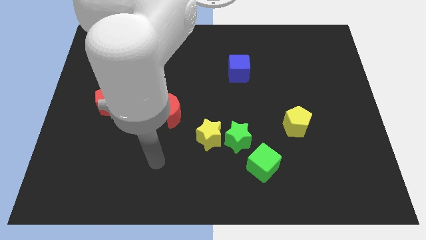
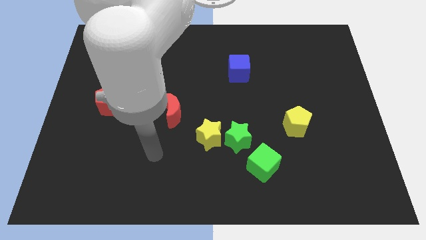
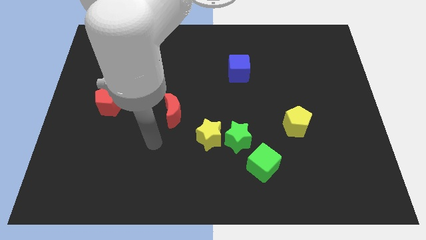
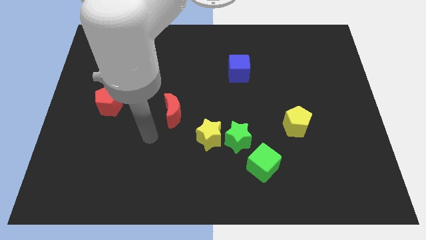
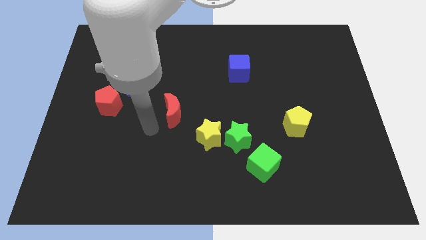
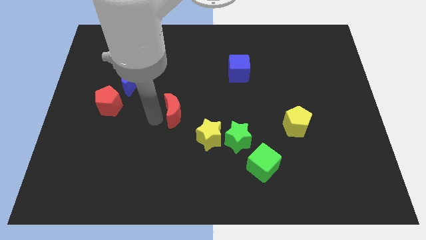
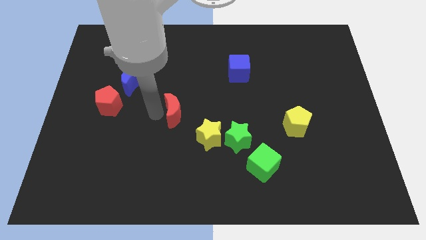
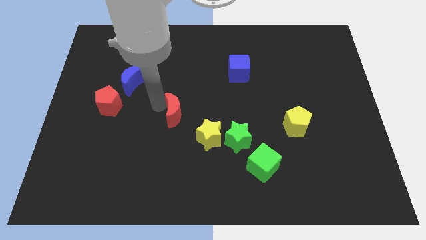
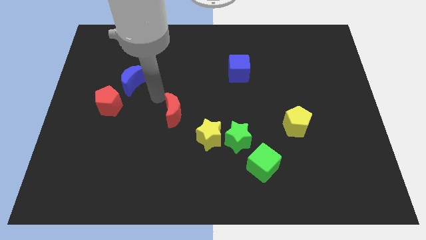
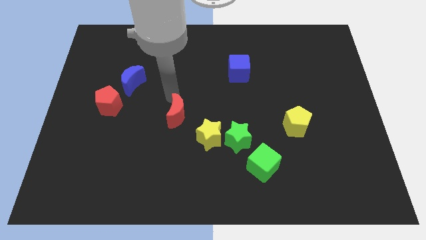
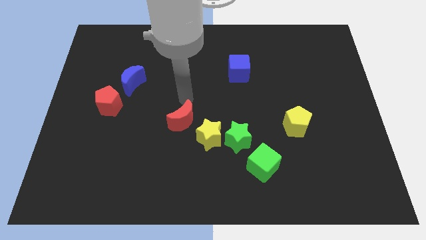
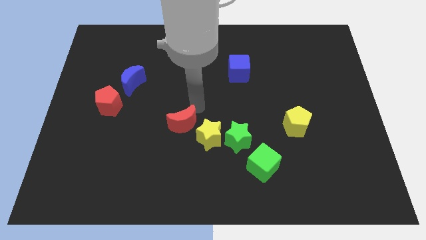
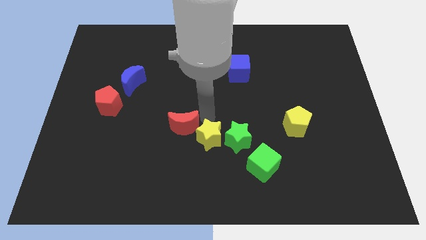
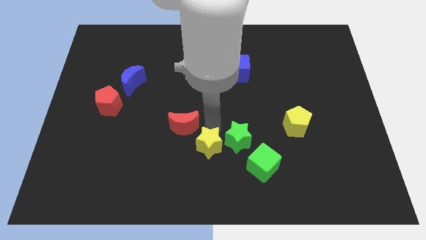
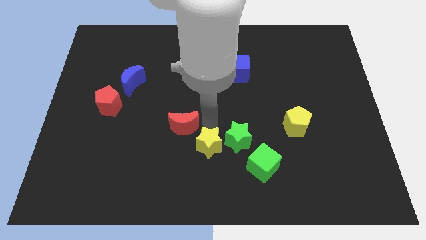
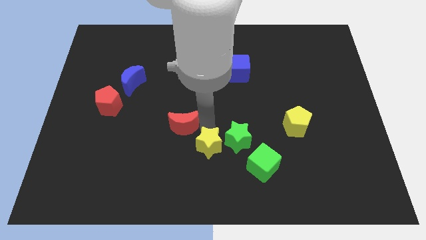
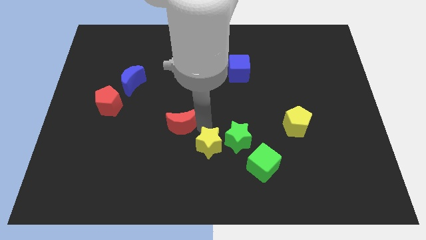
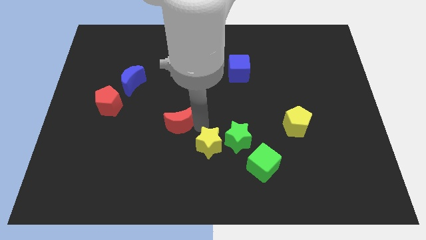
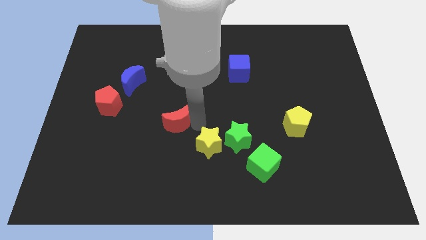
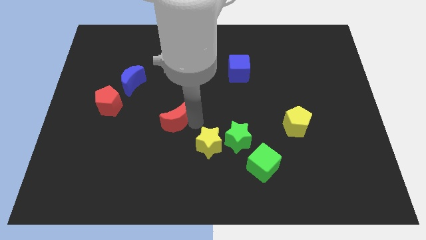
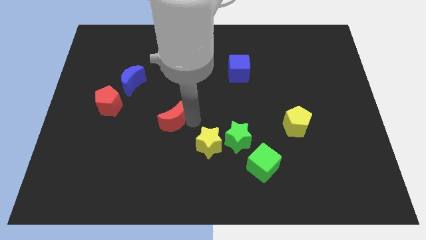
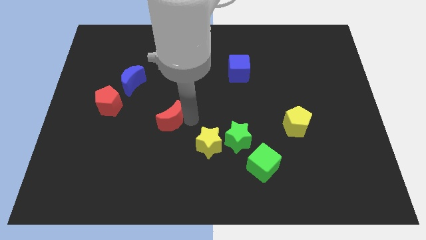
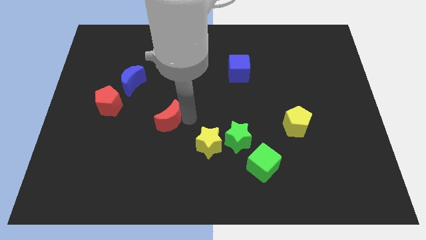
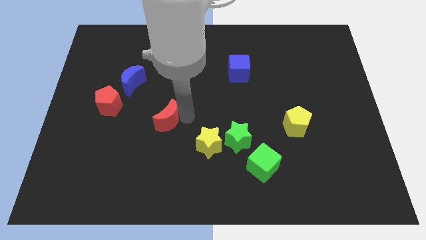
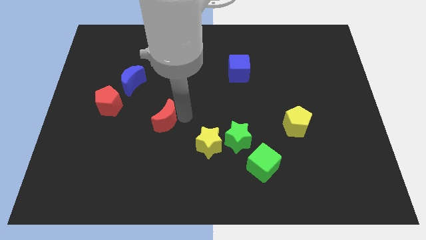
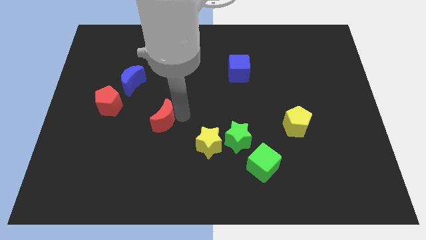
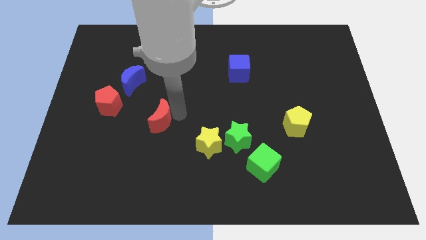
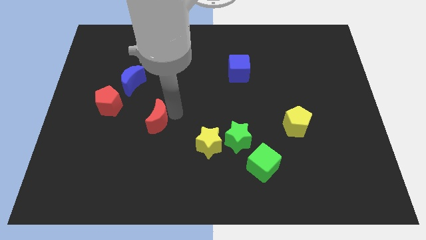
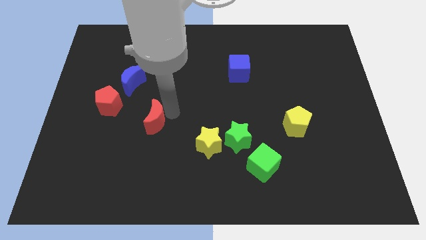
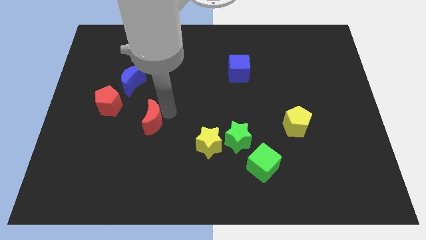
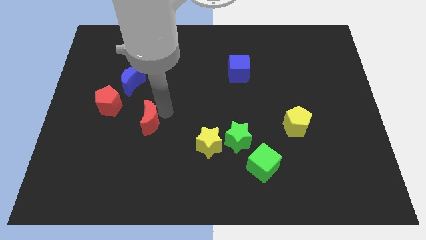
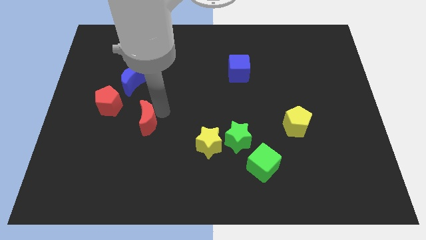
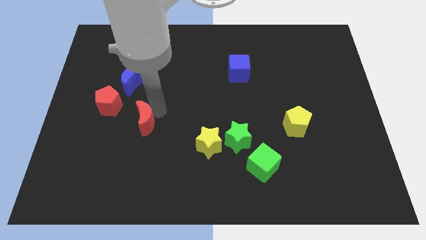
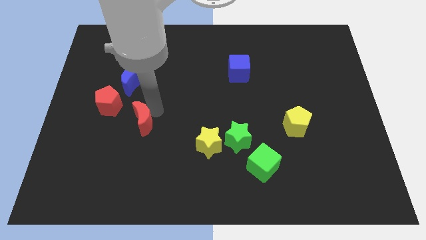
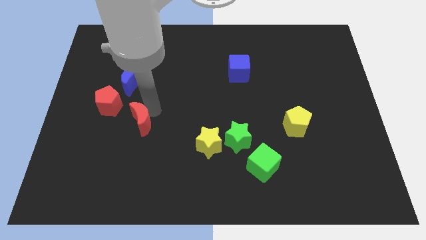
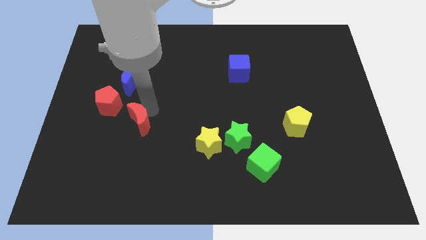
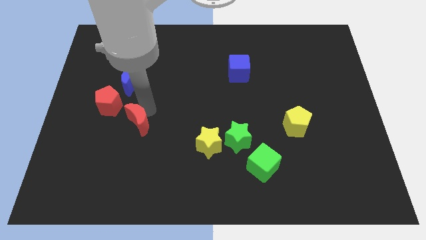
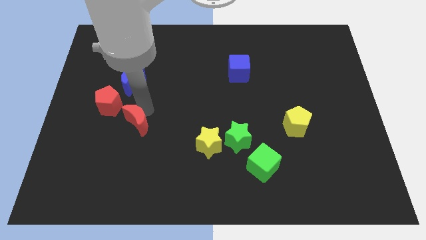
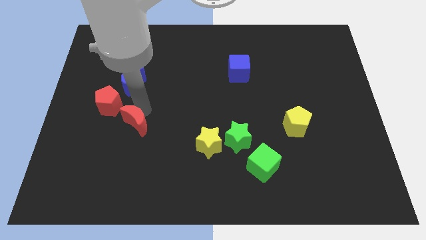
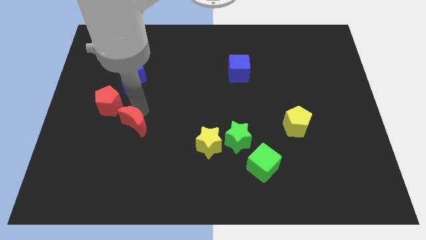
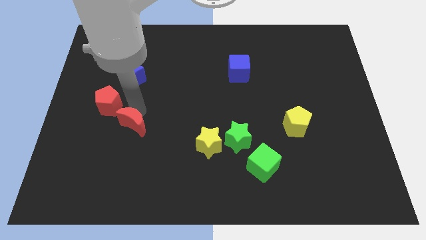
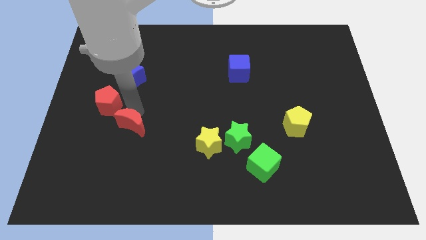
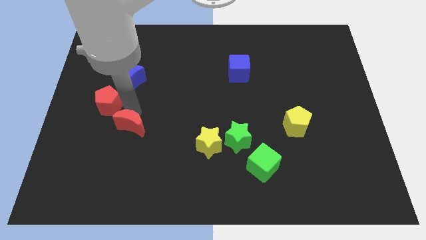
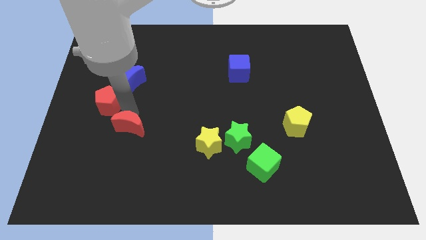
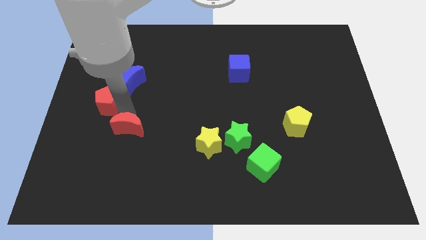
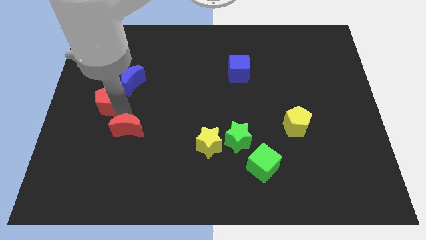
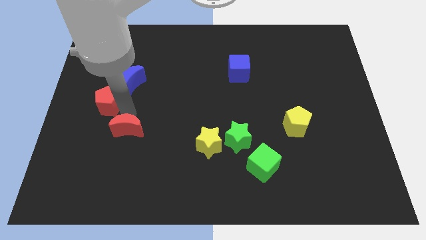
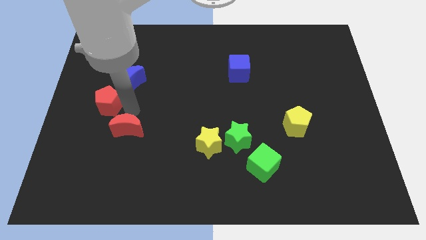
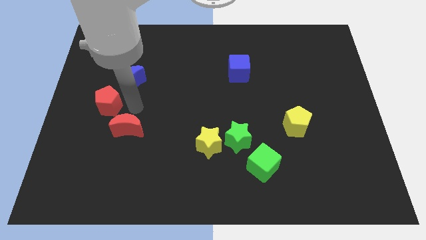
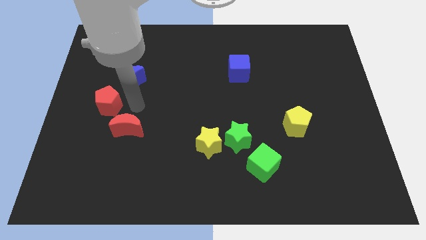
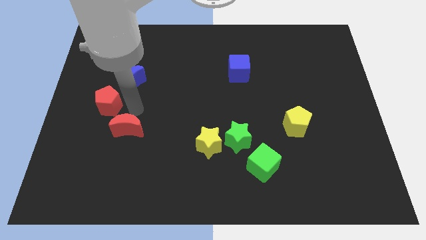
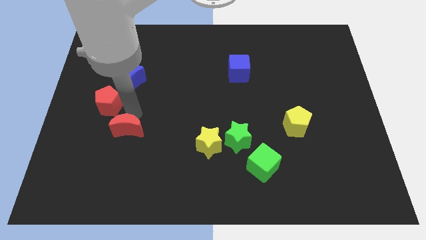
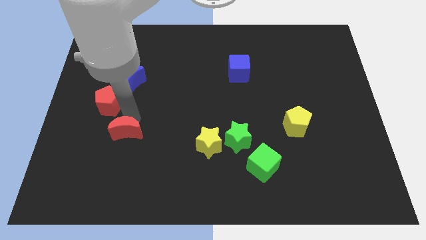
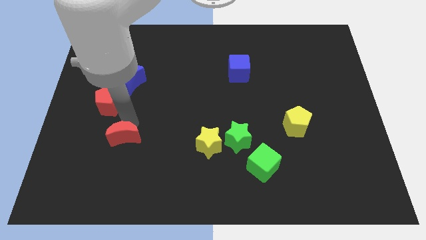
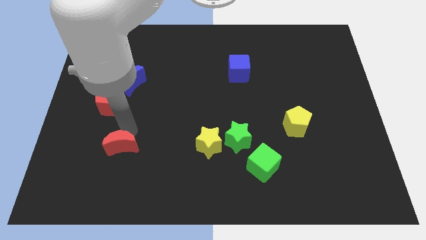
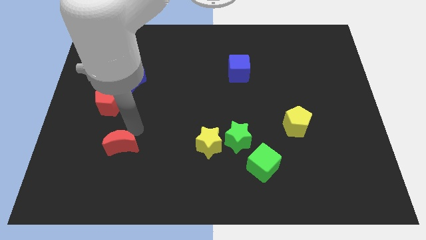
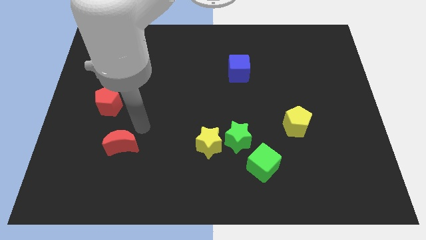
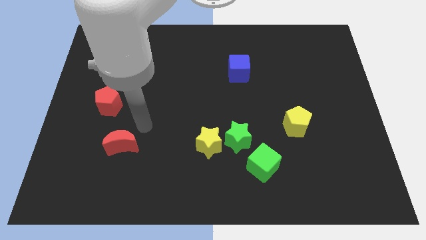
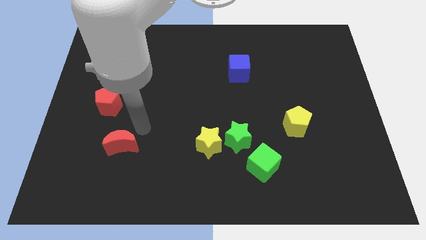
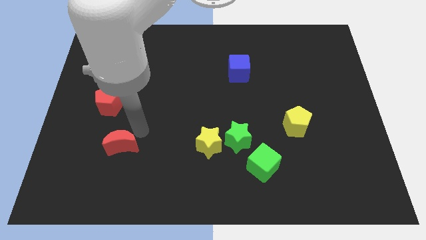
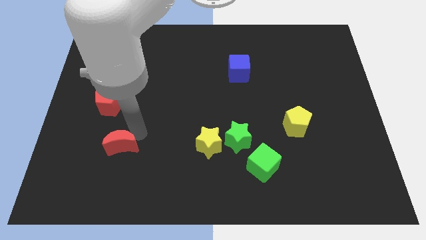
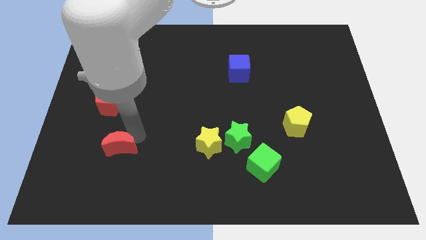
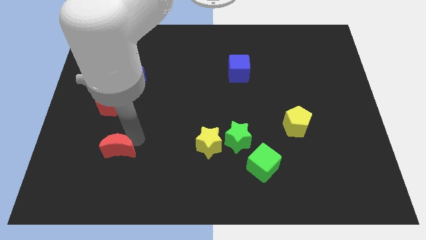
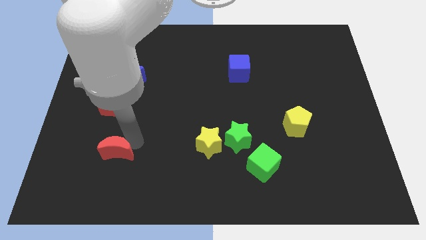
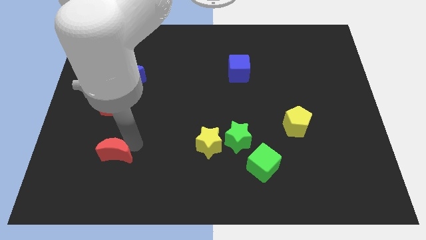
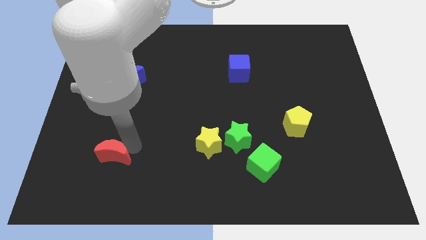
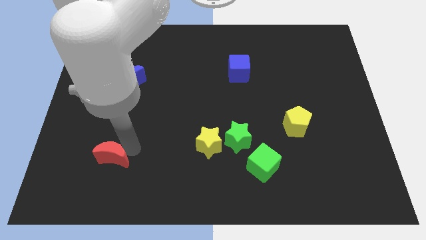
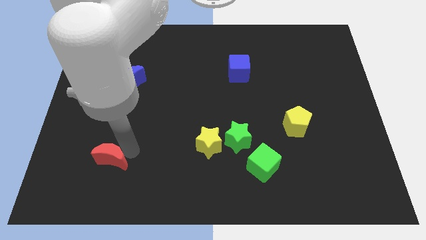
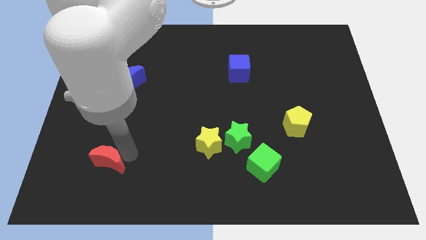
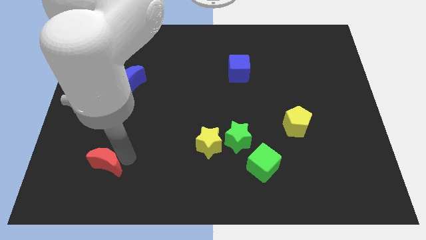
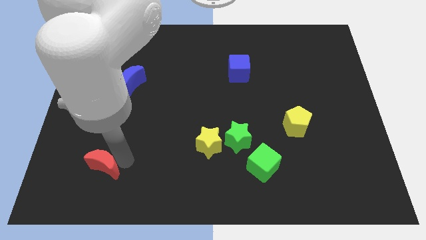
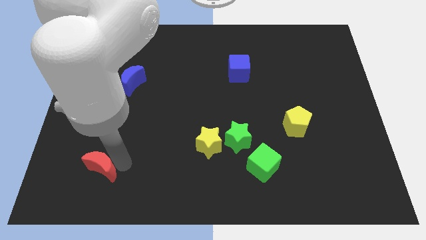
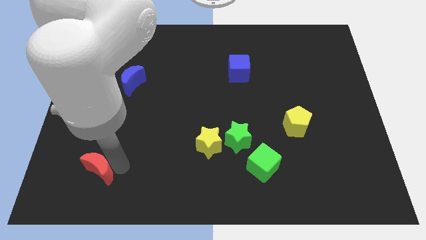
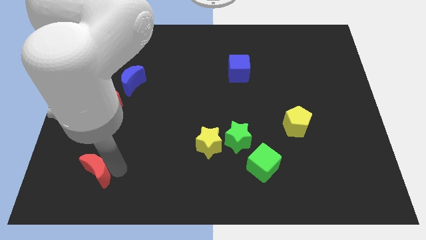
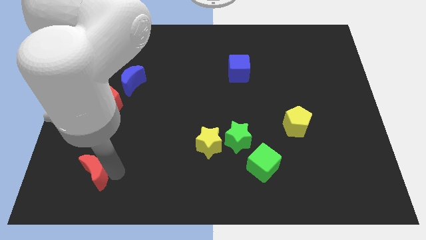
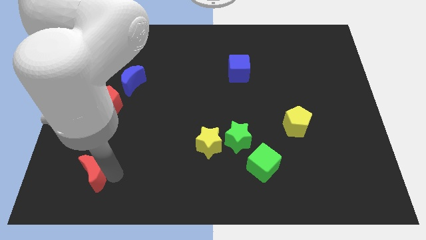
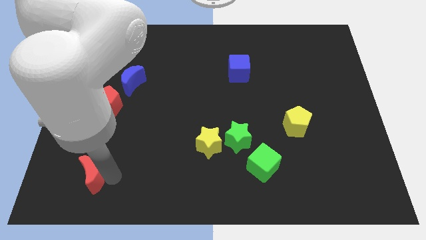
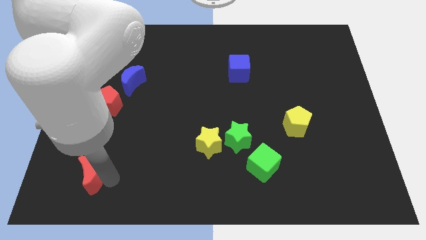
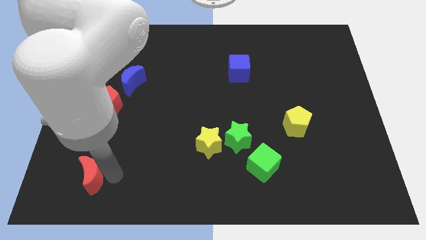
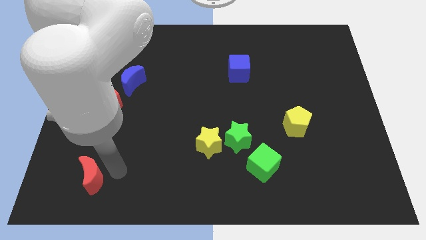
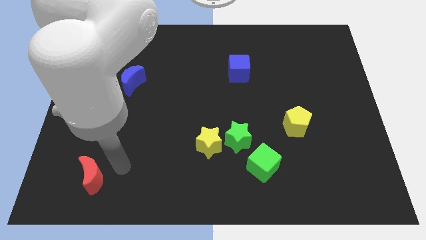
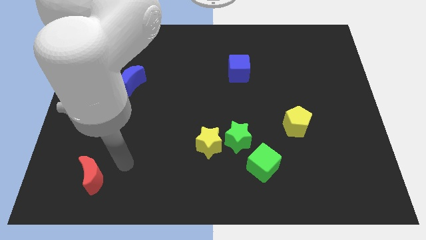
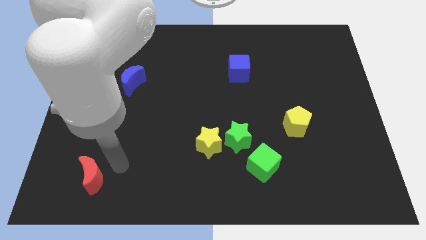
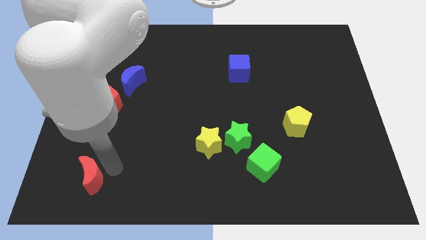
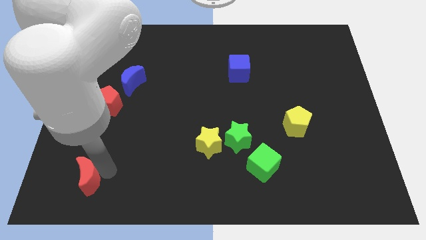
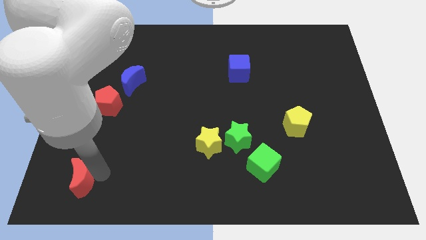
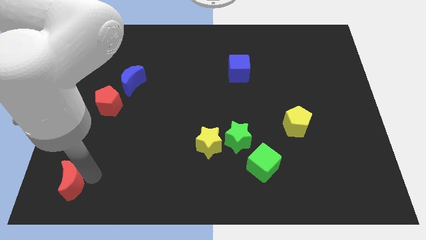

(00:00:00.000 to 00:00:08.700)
put the red moon to the bottom left
